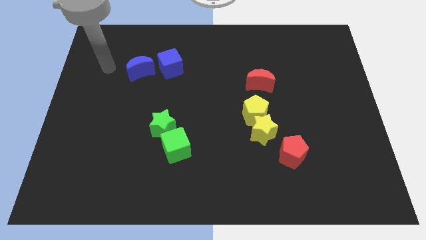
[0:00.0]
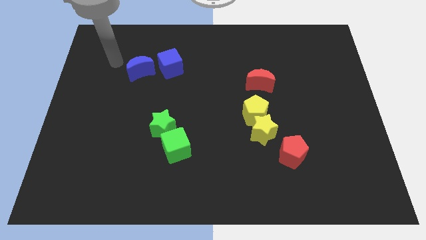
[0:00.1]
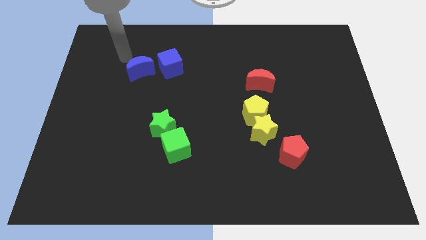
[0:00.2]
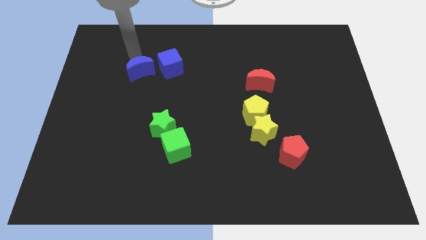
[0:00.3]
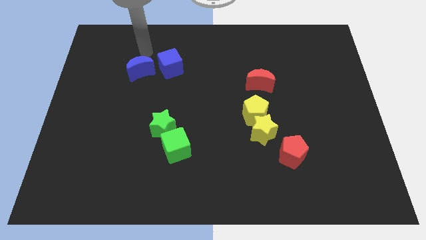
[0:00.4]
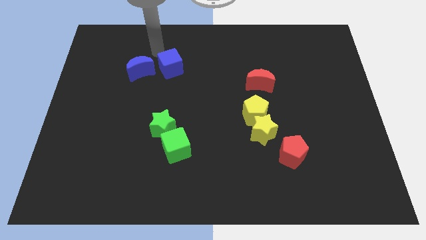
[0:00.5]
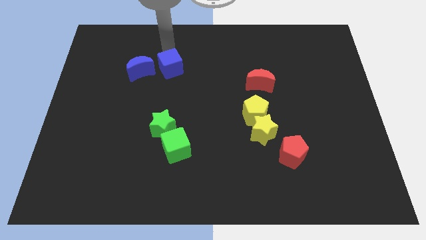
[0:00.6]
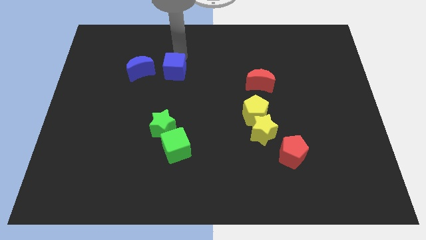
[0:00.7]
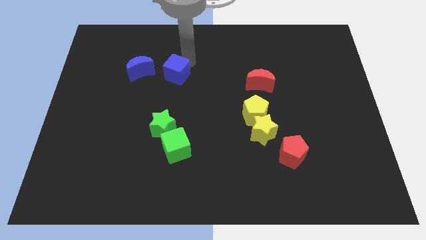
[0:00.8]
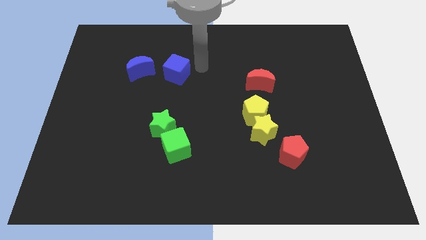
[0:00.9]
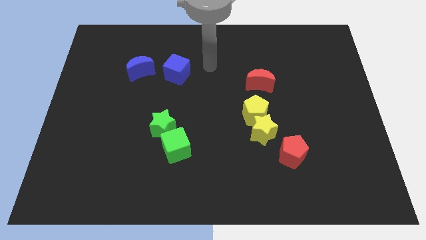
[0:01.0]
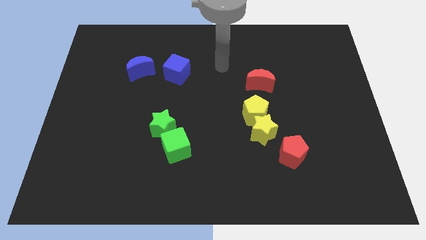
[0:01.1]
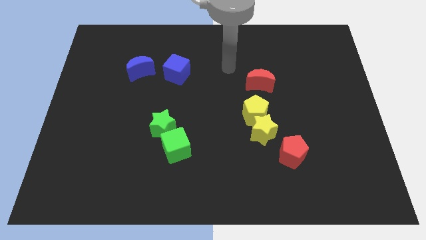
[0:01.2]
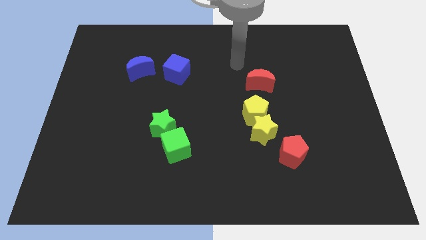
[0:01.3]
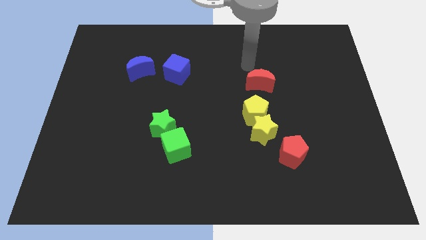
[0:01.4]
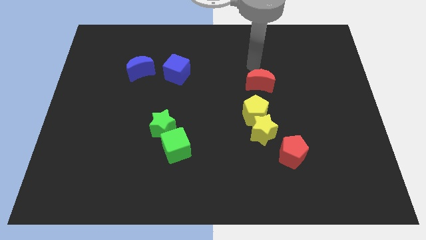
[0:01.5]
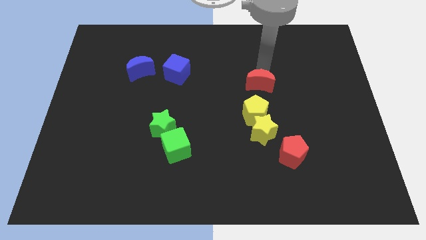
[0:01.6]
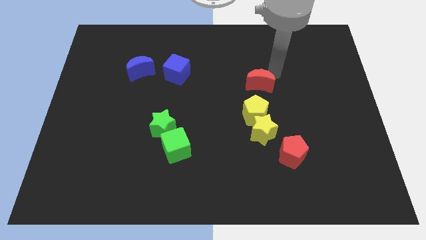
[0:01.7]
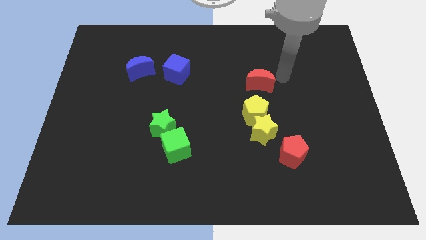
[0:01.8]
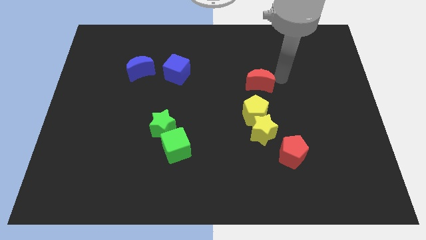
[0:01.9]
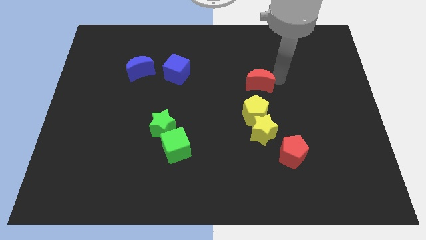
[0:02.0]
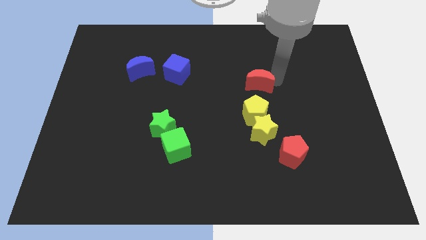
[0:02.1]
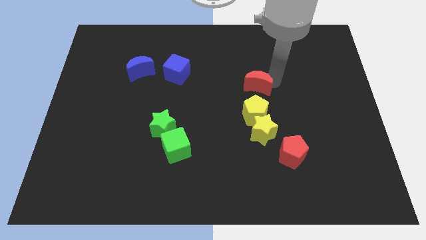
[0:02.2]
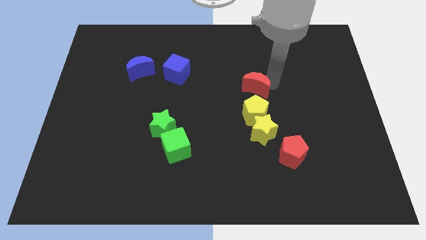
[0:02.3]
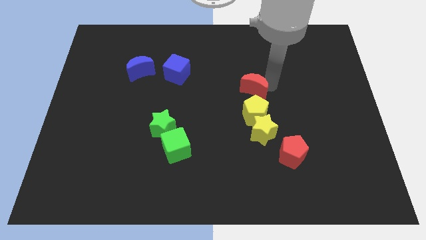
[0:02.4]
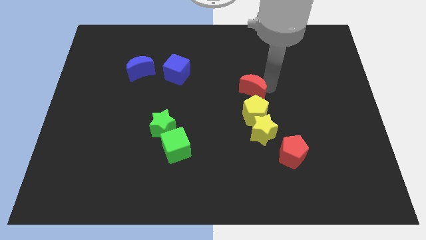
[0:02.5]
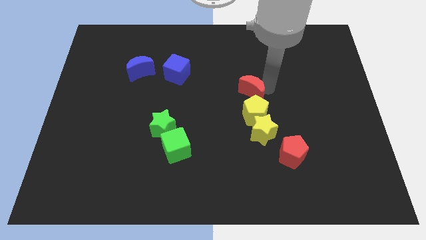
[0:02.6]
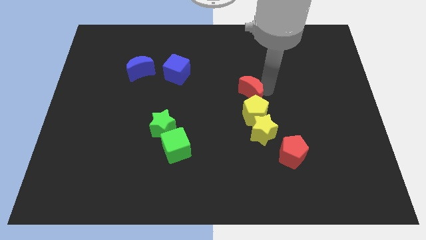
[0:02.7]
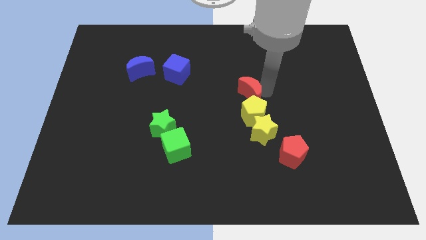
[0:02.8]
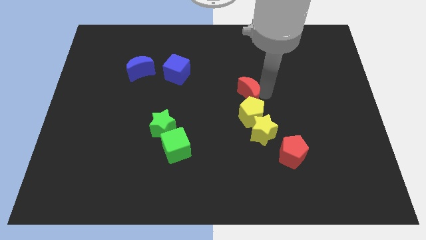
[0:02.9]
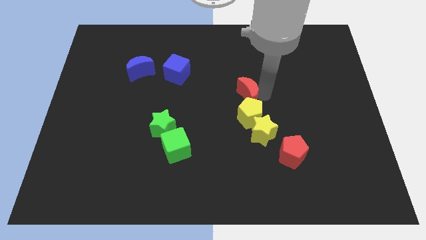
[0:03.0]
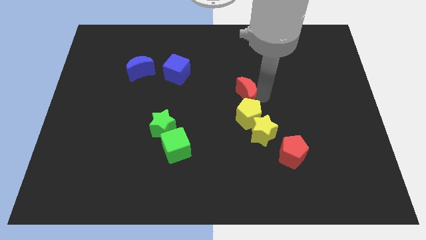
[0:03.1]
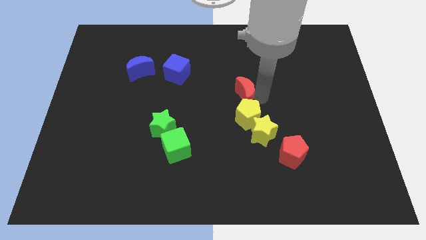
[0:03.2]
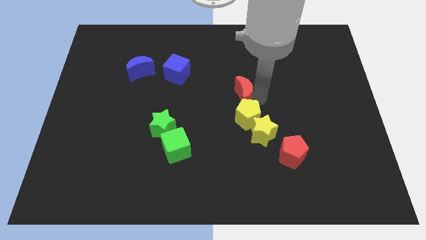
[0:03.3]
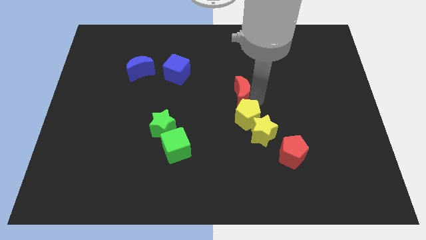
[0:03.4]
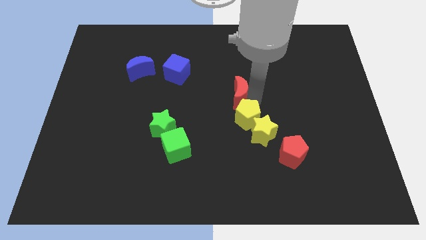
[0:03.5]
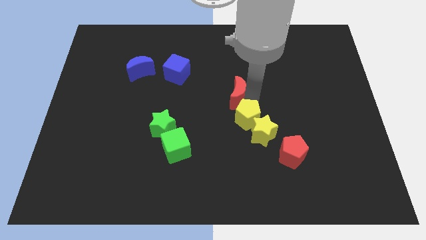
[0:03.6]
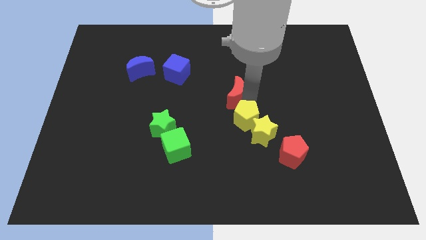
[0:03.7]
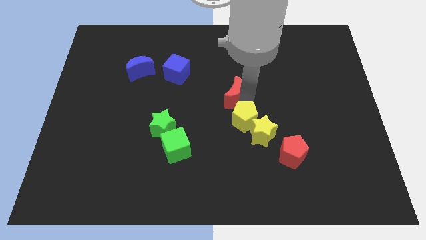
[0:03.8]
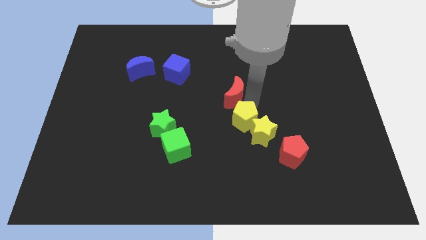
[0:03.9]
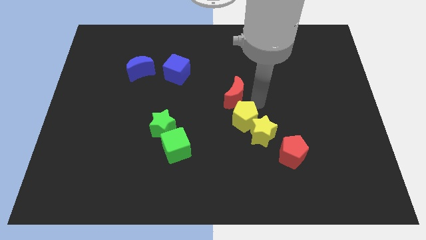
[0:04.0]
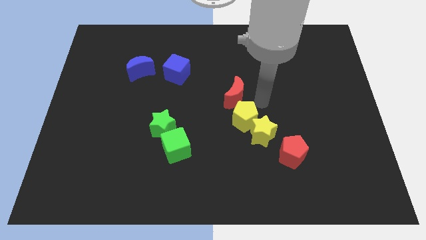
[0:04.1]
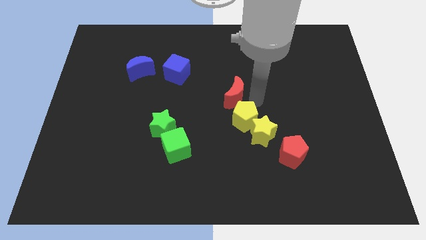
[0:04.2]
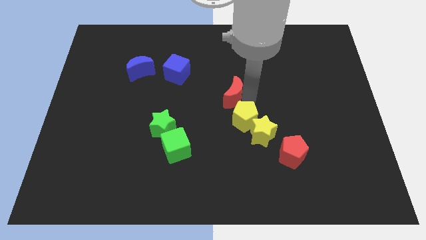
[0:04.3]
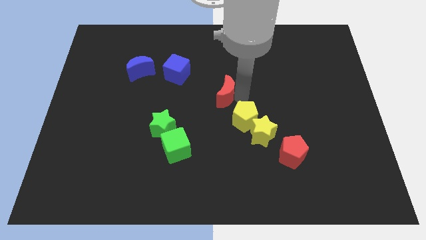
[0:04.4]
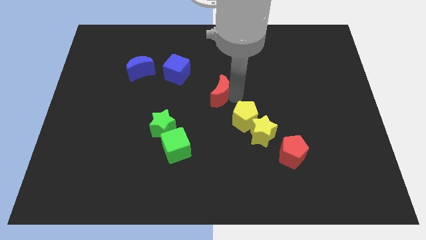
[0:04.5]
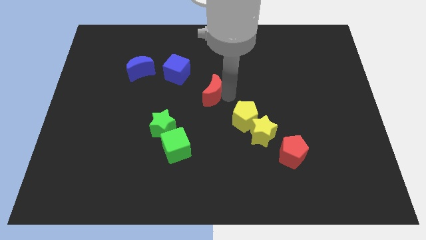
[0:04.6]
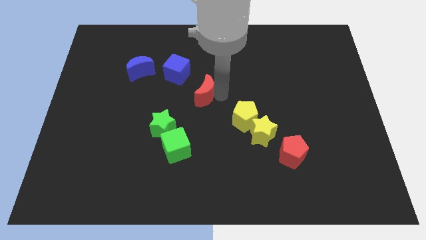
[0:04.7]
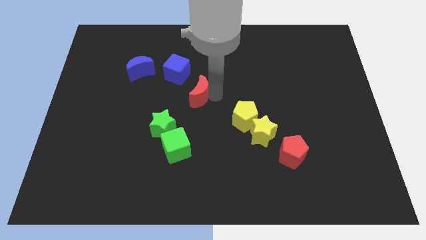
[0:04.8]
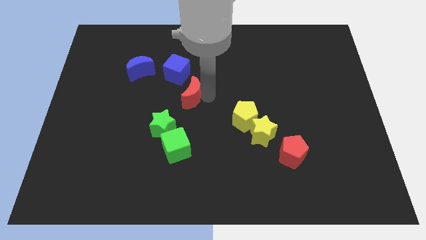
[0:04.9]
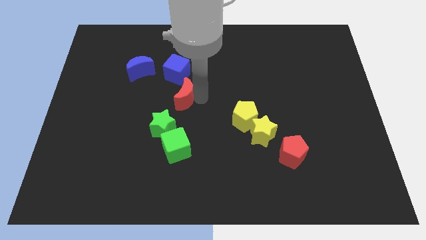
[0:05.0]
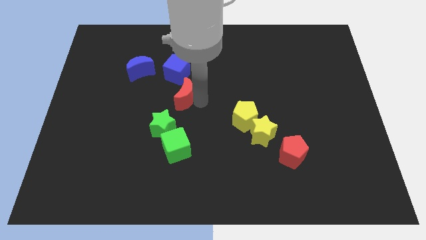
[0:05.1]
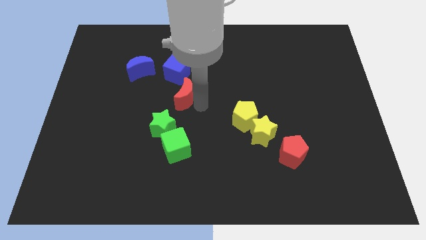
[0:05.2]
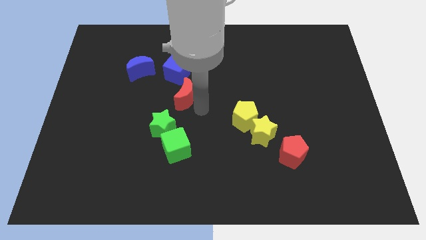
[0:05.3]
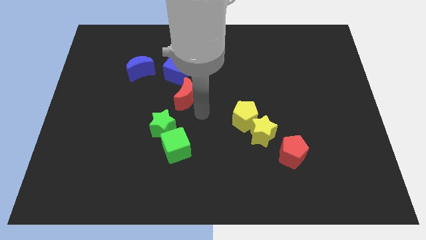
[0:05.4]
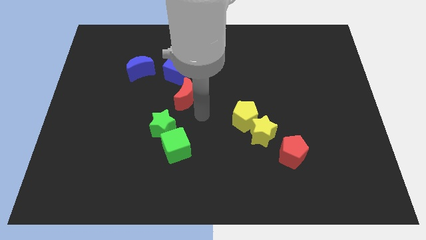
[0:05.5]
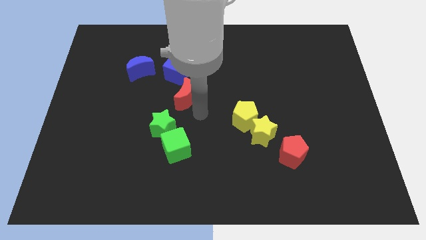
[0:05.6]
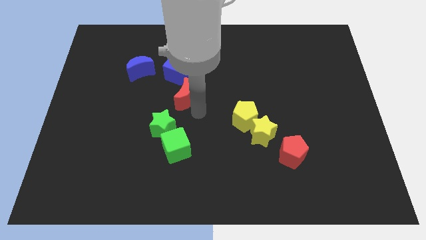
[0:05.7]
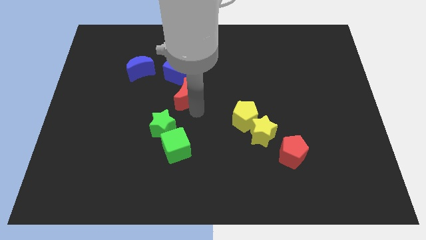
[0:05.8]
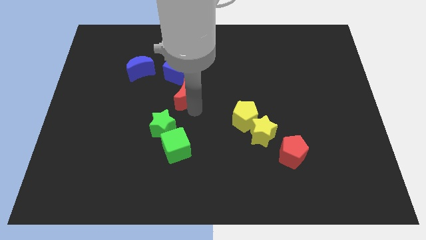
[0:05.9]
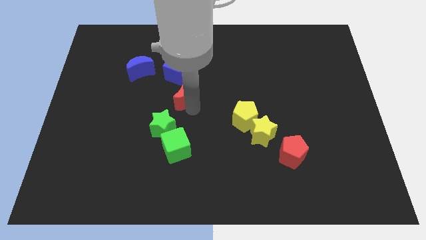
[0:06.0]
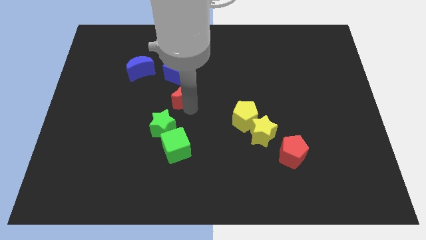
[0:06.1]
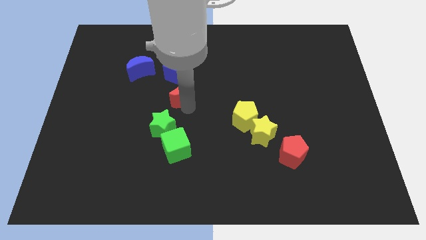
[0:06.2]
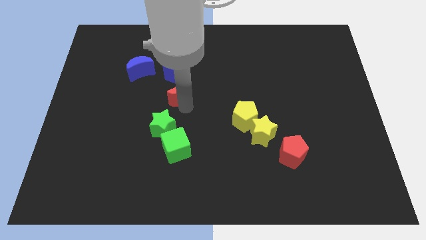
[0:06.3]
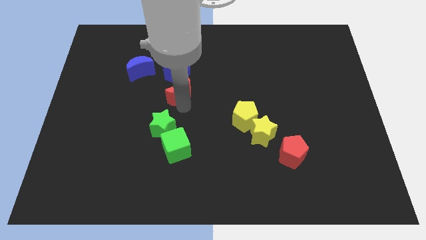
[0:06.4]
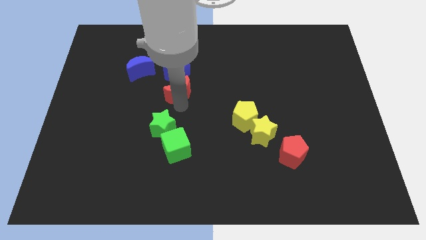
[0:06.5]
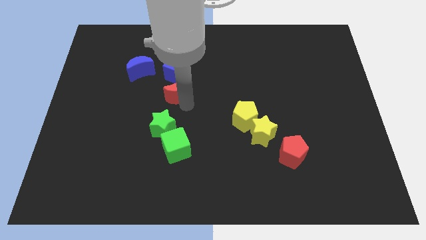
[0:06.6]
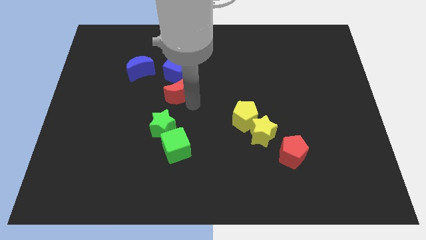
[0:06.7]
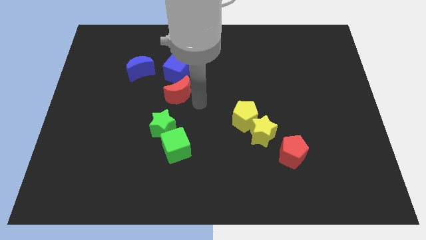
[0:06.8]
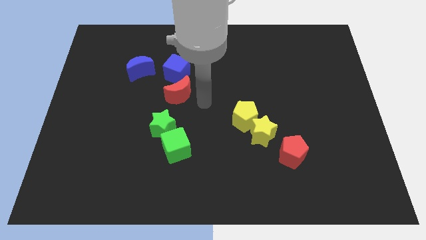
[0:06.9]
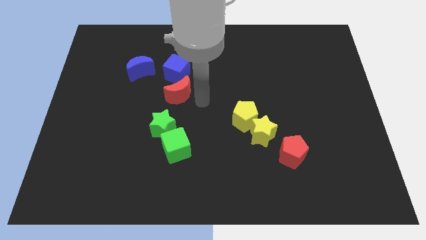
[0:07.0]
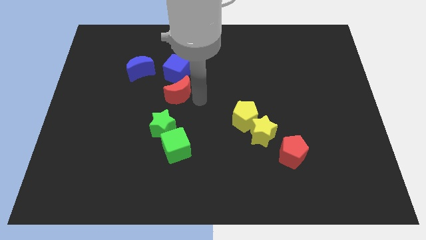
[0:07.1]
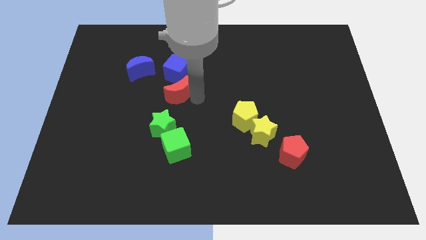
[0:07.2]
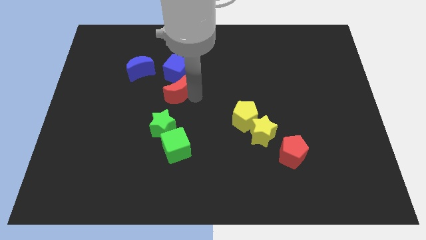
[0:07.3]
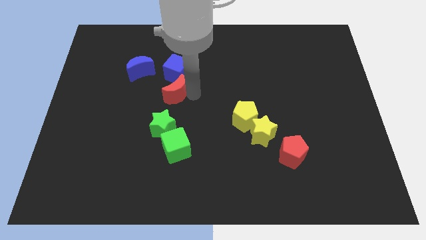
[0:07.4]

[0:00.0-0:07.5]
push the red moon left

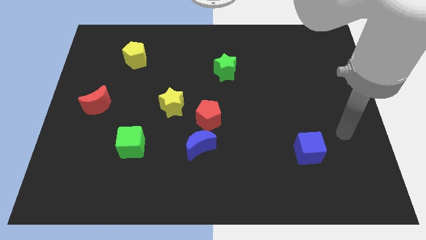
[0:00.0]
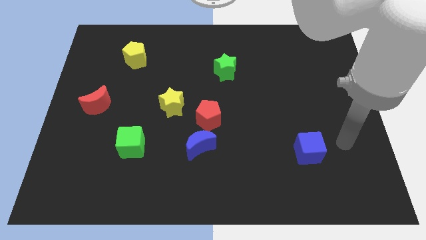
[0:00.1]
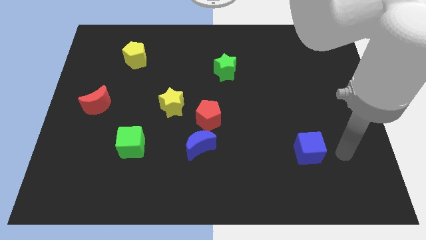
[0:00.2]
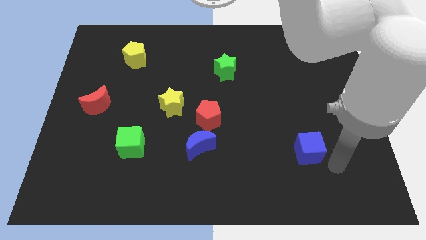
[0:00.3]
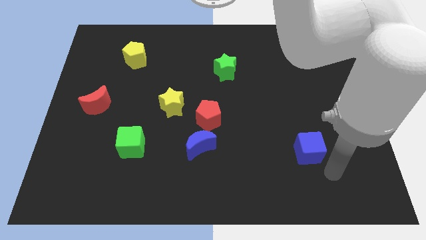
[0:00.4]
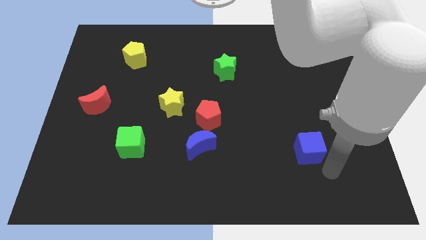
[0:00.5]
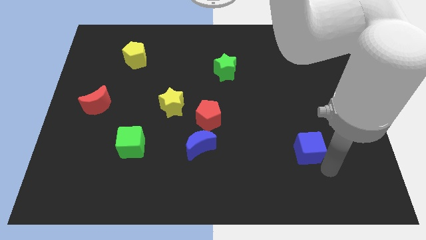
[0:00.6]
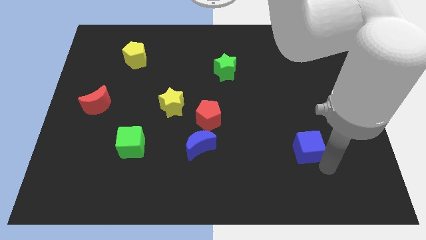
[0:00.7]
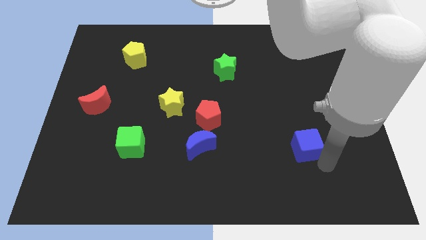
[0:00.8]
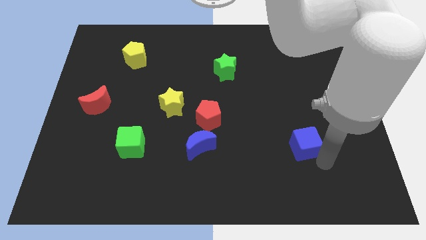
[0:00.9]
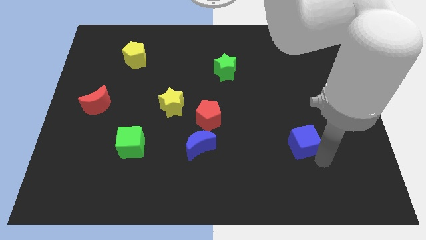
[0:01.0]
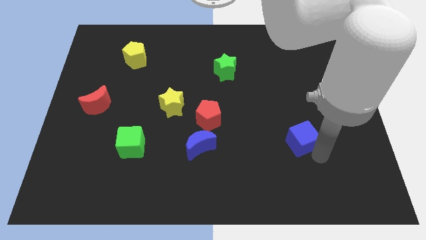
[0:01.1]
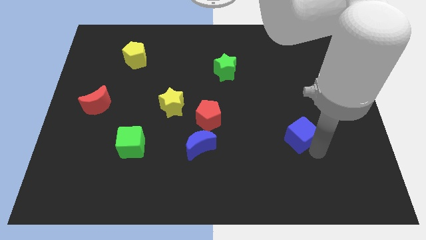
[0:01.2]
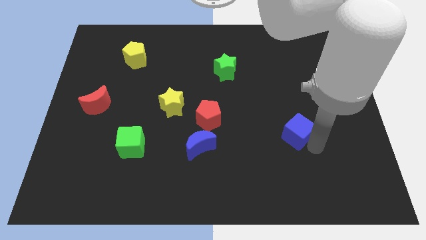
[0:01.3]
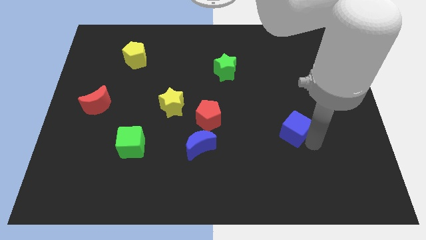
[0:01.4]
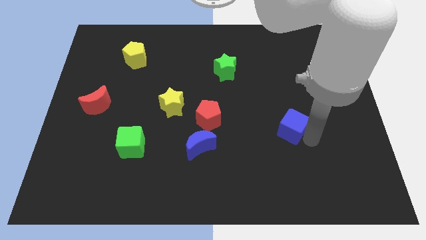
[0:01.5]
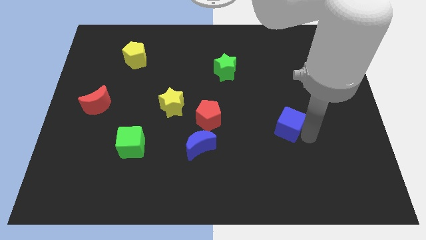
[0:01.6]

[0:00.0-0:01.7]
slightly move the blue cube upwards and left diagonally
